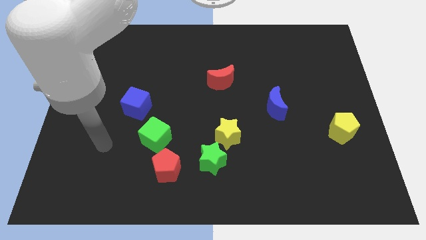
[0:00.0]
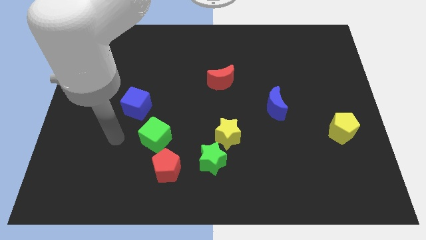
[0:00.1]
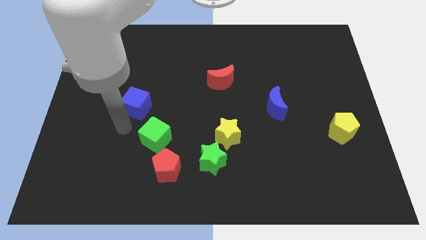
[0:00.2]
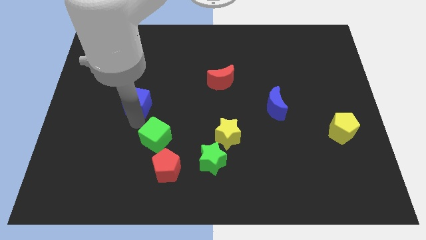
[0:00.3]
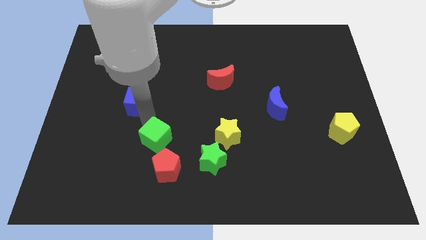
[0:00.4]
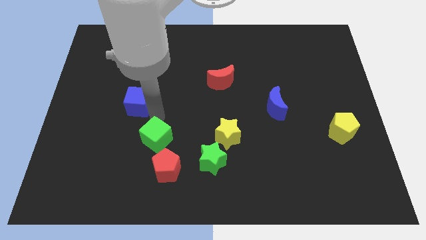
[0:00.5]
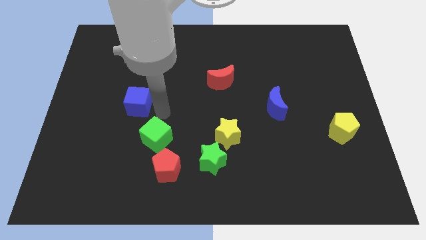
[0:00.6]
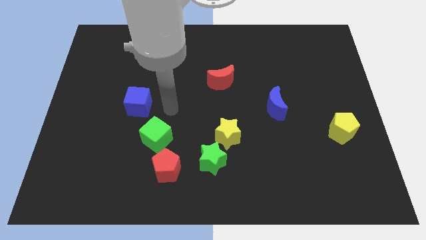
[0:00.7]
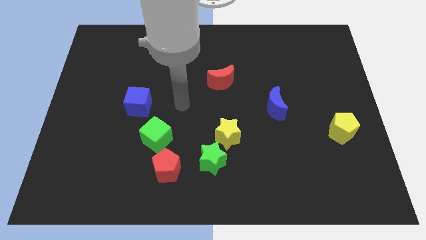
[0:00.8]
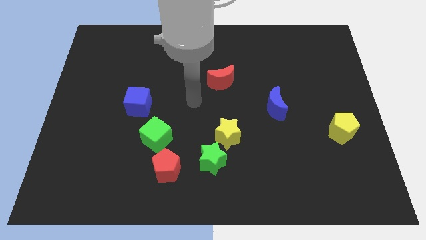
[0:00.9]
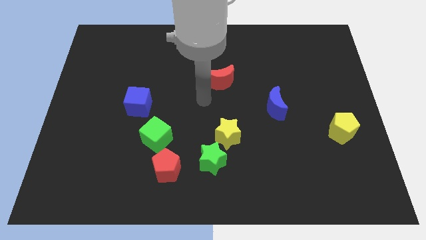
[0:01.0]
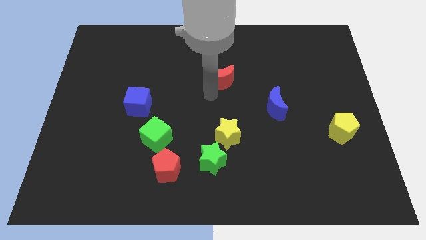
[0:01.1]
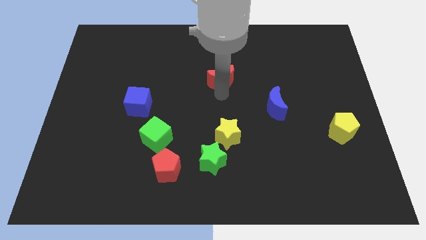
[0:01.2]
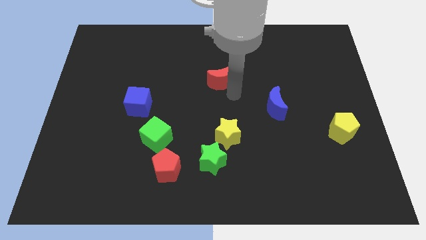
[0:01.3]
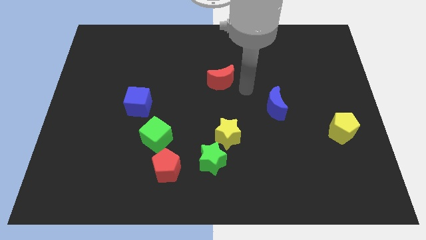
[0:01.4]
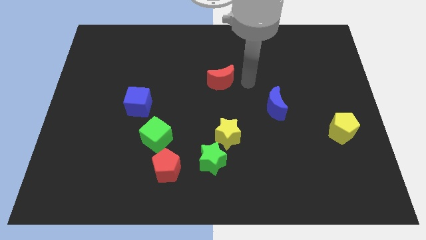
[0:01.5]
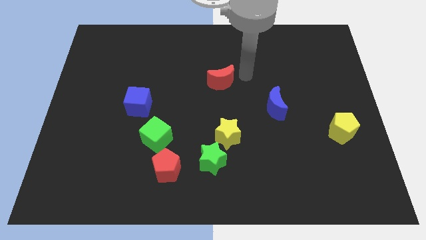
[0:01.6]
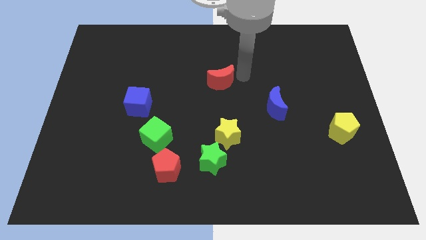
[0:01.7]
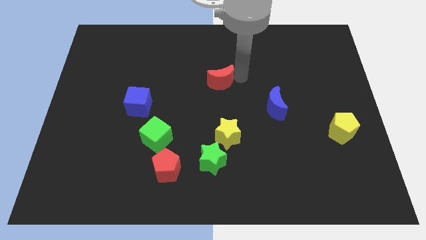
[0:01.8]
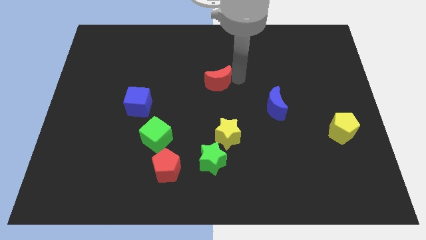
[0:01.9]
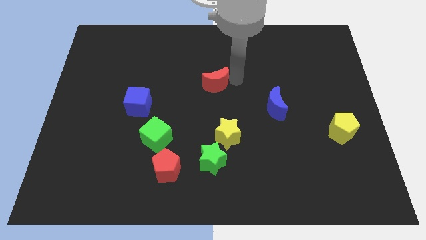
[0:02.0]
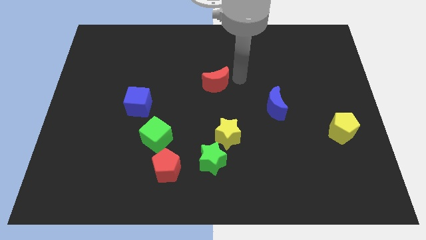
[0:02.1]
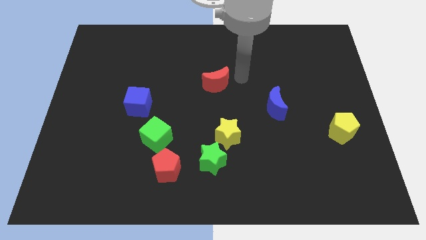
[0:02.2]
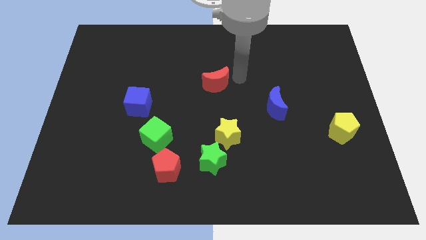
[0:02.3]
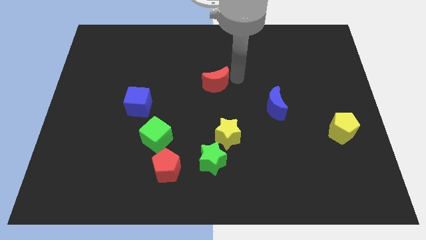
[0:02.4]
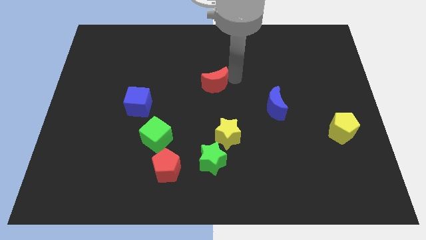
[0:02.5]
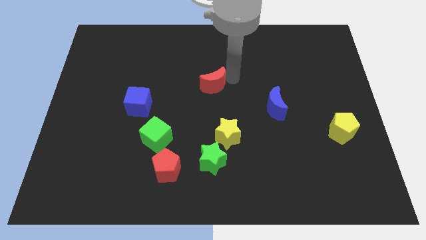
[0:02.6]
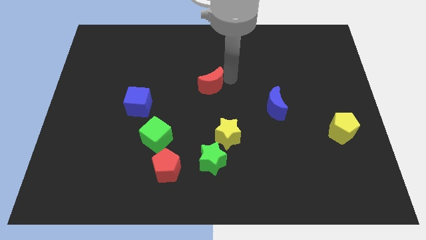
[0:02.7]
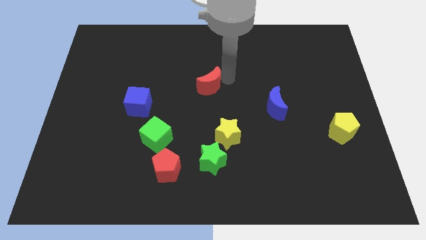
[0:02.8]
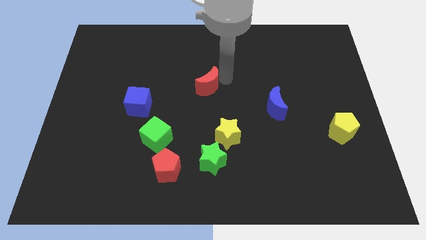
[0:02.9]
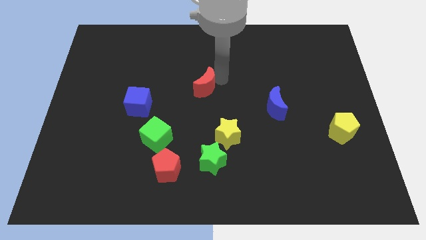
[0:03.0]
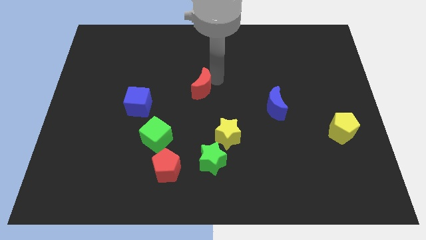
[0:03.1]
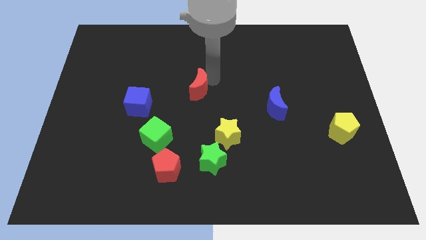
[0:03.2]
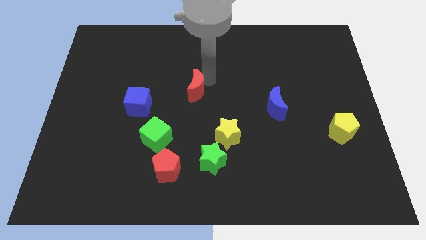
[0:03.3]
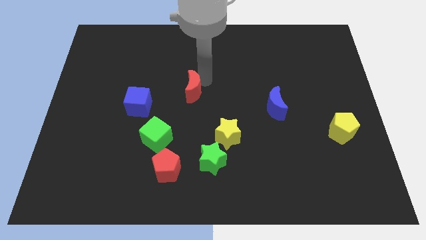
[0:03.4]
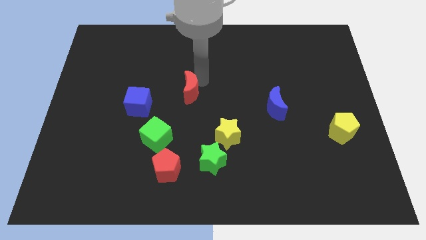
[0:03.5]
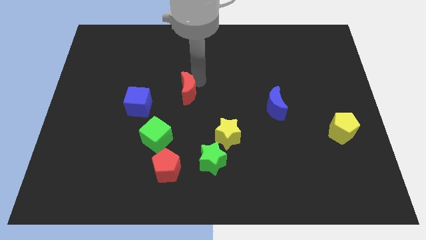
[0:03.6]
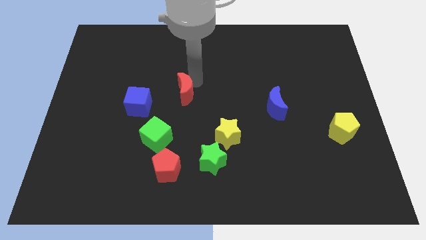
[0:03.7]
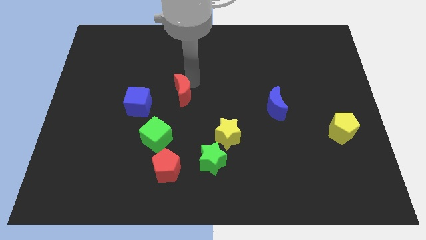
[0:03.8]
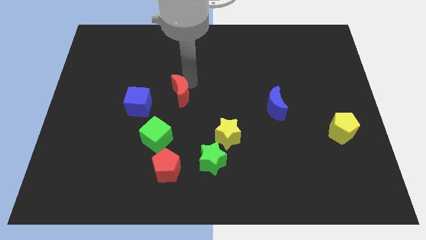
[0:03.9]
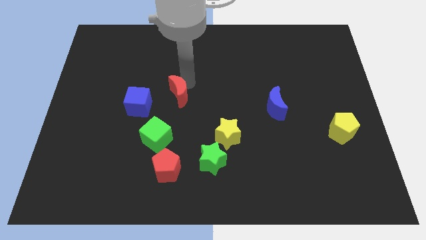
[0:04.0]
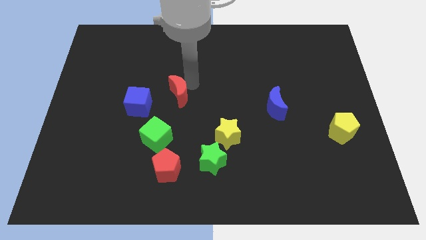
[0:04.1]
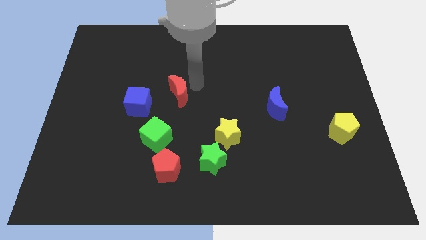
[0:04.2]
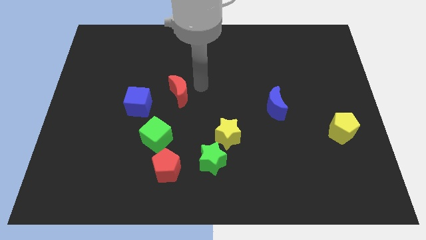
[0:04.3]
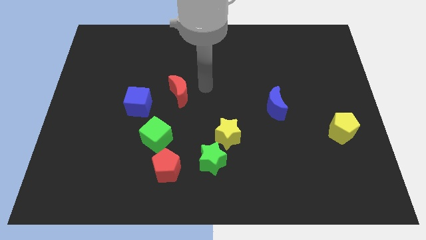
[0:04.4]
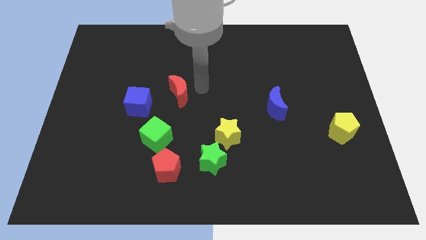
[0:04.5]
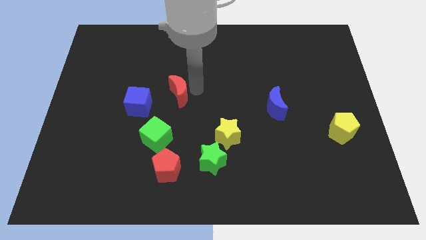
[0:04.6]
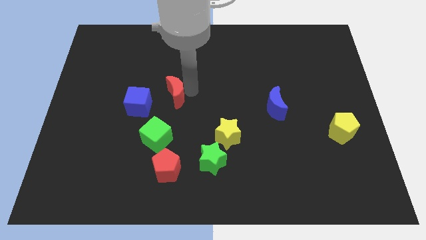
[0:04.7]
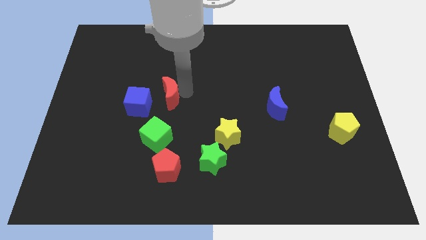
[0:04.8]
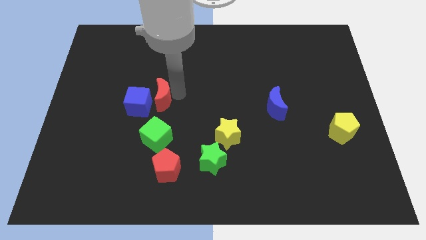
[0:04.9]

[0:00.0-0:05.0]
slide the red moon next to the blue cube

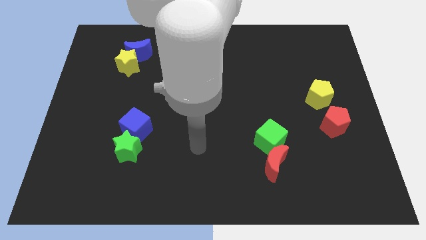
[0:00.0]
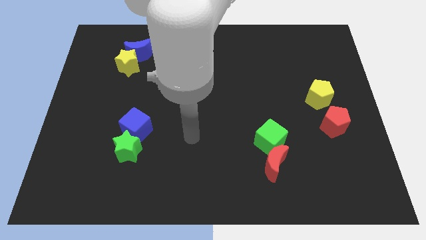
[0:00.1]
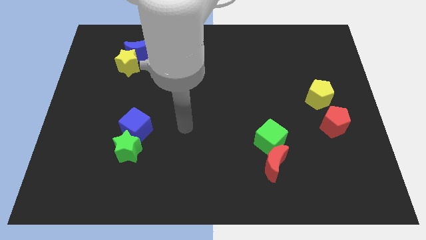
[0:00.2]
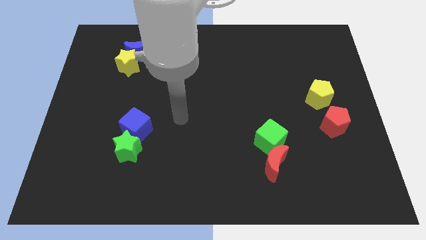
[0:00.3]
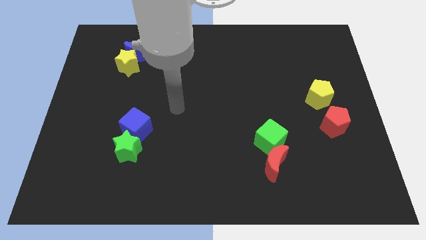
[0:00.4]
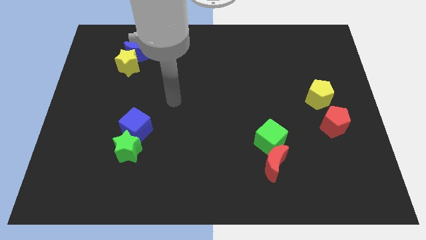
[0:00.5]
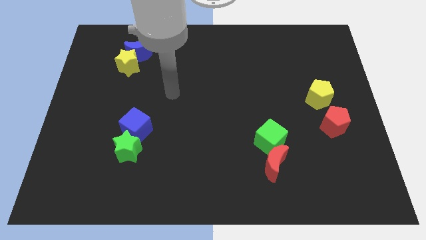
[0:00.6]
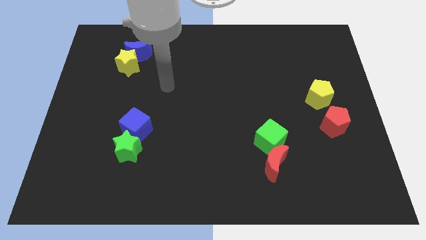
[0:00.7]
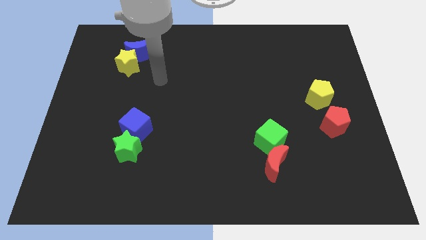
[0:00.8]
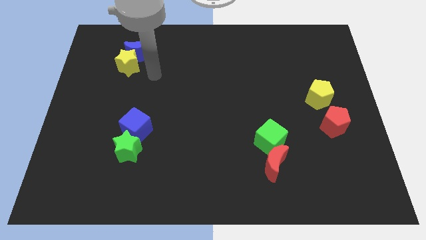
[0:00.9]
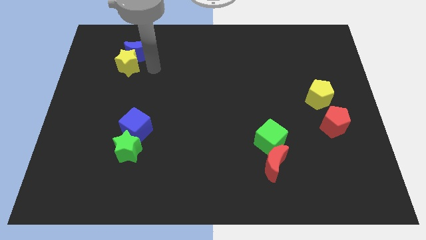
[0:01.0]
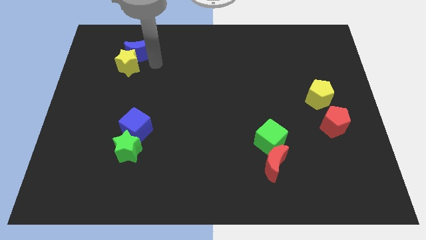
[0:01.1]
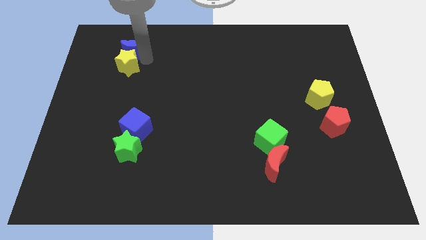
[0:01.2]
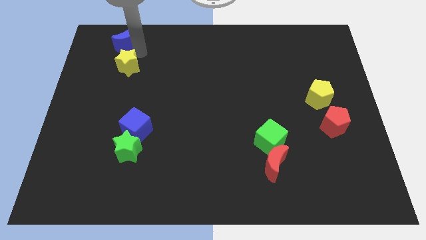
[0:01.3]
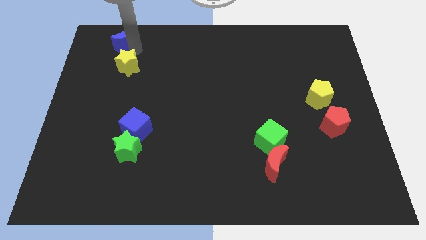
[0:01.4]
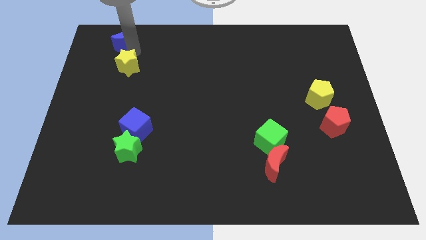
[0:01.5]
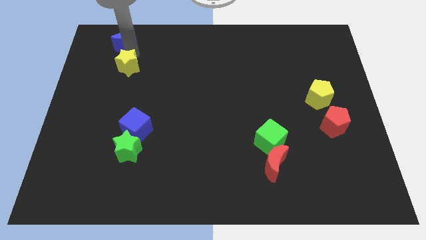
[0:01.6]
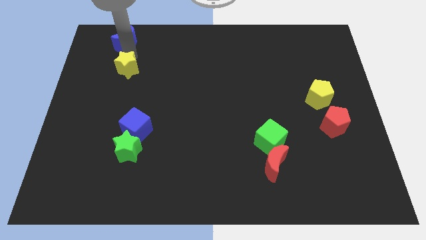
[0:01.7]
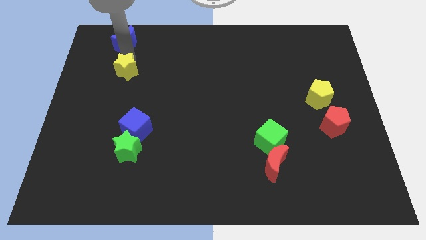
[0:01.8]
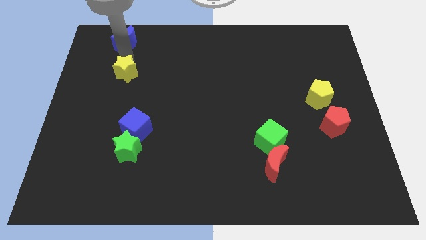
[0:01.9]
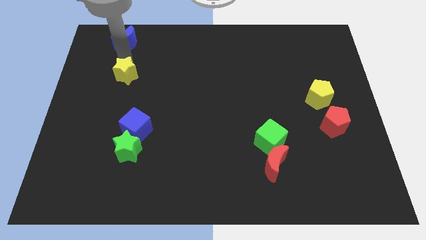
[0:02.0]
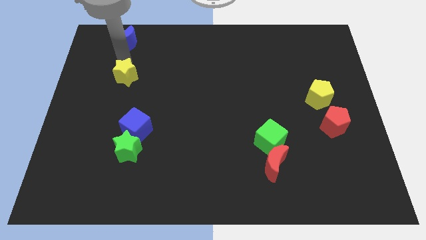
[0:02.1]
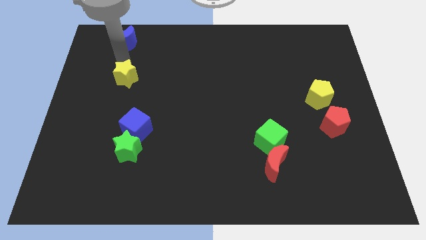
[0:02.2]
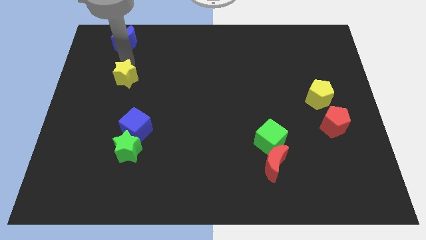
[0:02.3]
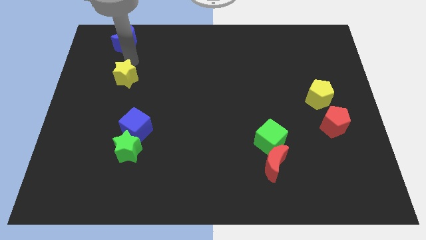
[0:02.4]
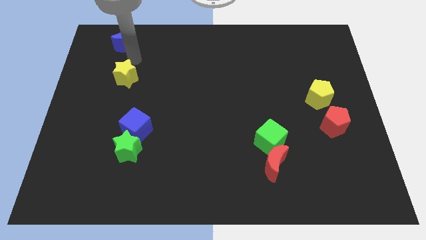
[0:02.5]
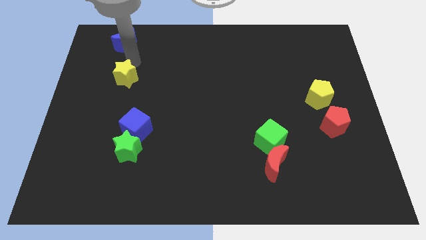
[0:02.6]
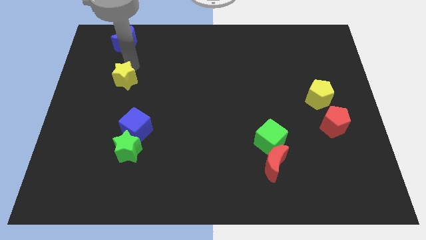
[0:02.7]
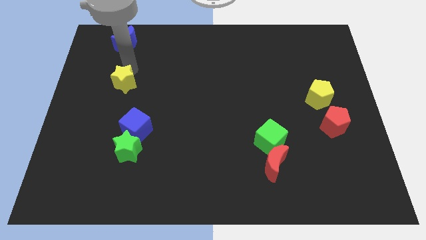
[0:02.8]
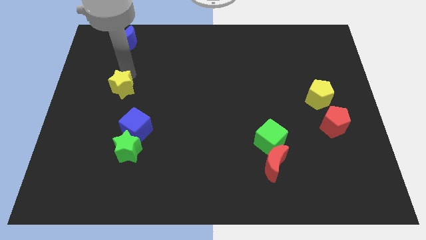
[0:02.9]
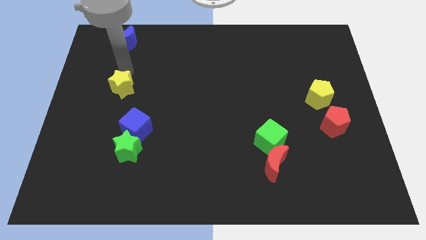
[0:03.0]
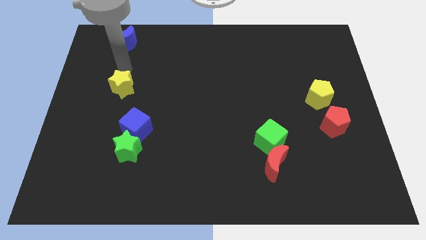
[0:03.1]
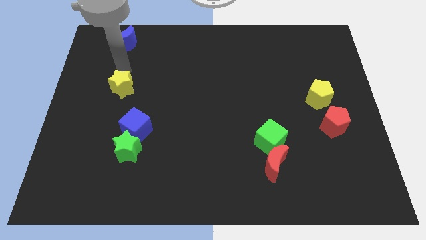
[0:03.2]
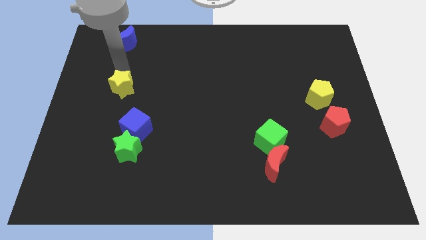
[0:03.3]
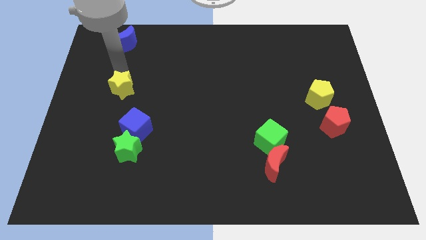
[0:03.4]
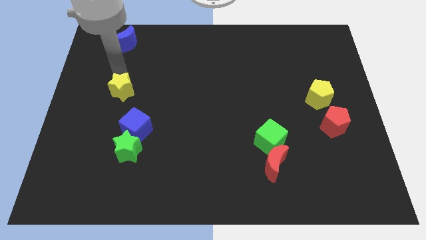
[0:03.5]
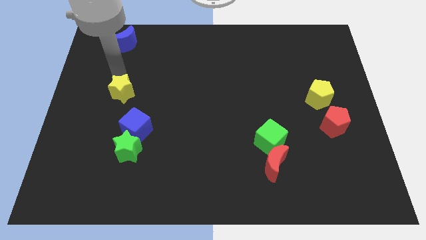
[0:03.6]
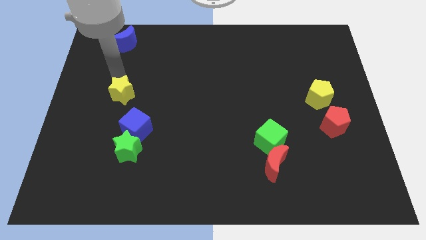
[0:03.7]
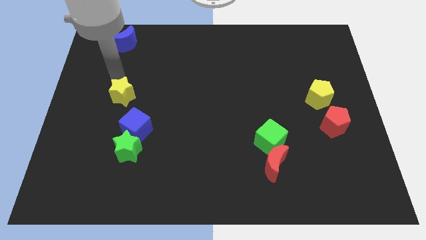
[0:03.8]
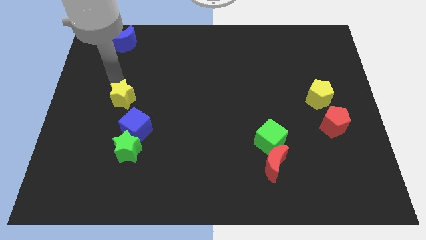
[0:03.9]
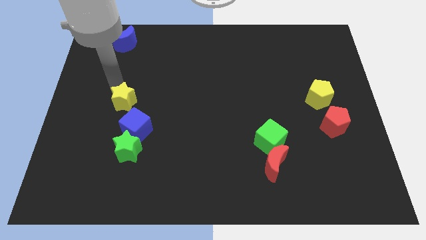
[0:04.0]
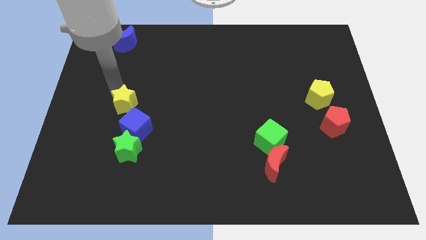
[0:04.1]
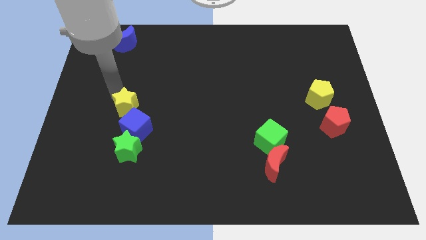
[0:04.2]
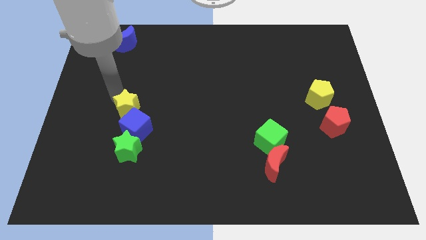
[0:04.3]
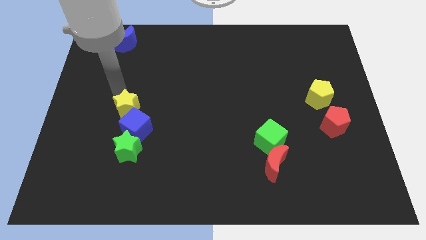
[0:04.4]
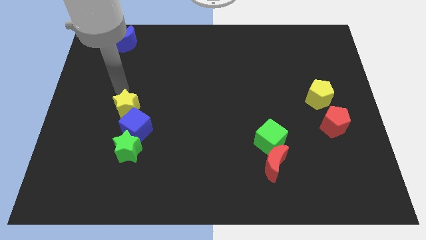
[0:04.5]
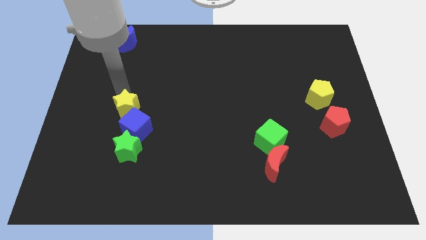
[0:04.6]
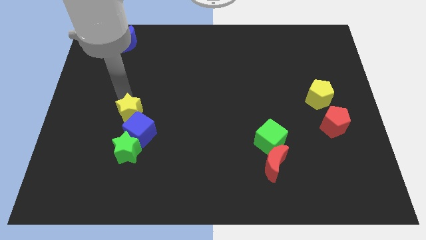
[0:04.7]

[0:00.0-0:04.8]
move the yellow star towards the blue cube
